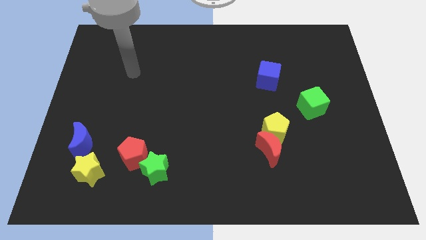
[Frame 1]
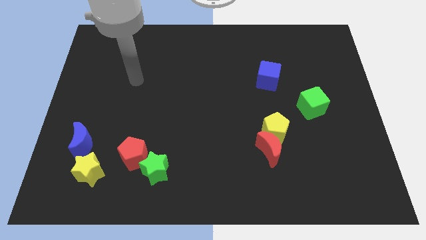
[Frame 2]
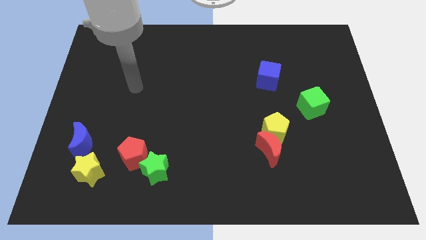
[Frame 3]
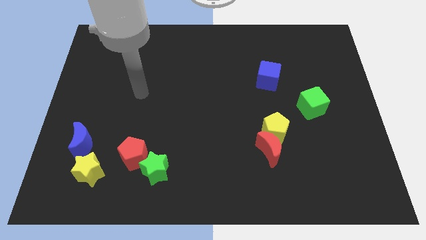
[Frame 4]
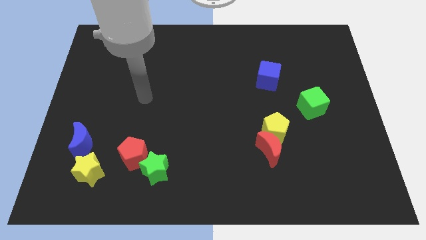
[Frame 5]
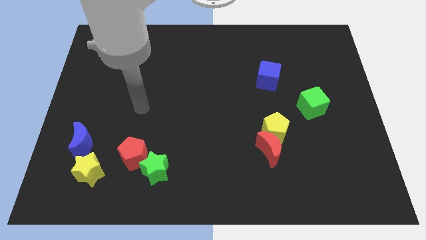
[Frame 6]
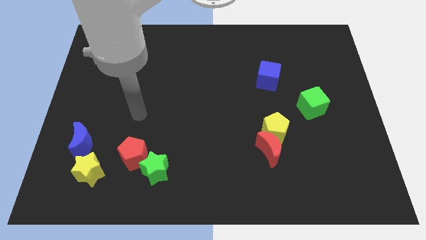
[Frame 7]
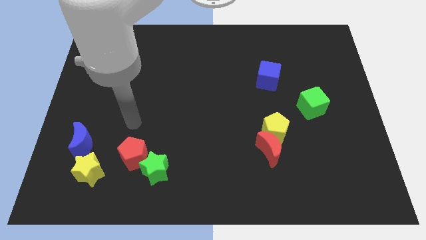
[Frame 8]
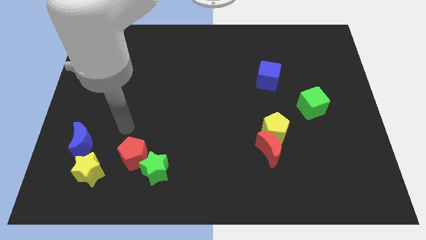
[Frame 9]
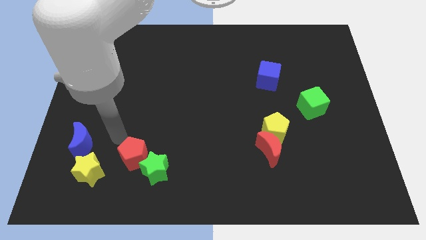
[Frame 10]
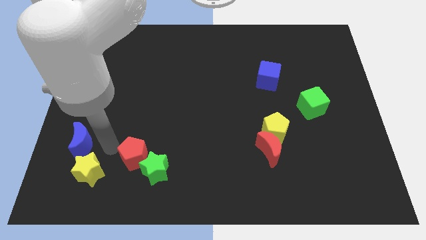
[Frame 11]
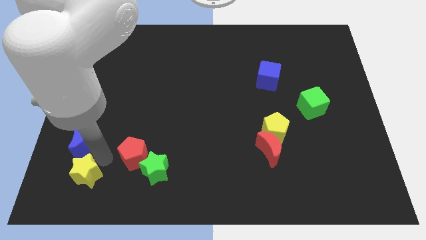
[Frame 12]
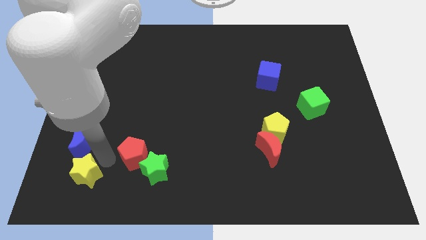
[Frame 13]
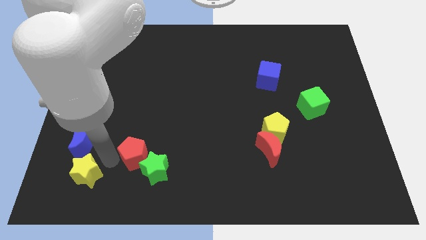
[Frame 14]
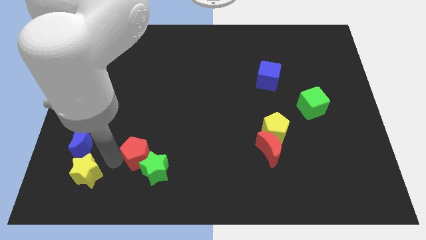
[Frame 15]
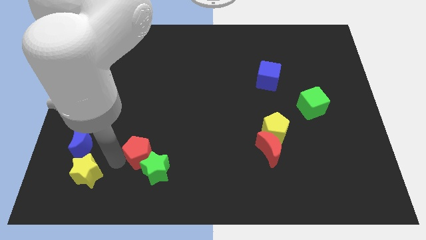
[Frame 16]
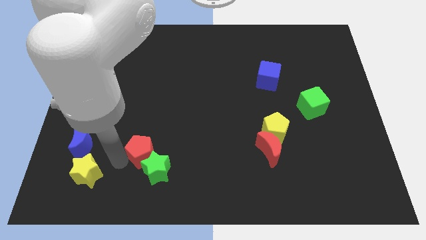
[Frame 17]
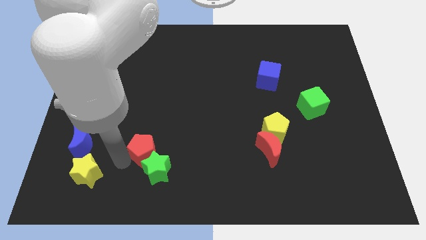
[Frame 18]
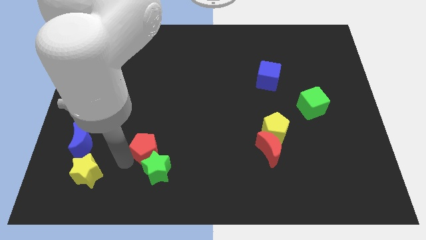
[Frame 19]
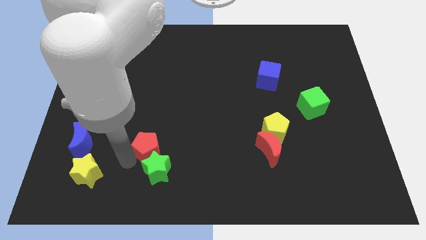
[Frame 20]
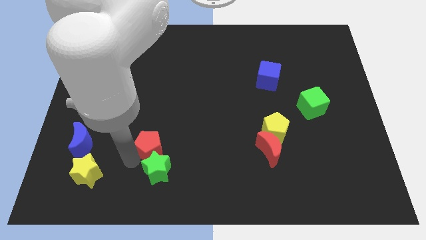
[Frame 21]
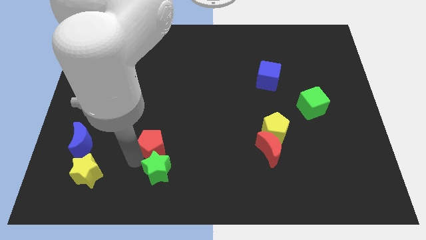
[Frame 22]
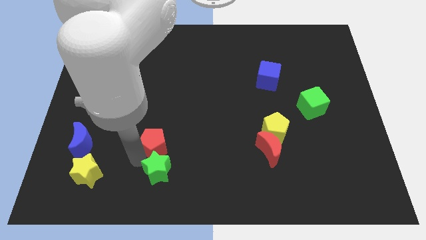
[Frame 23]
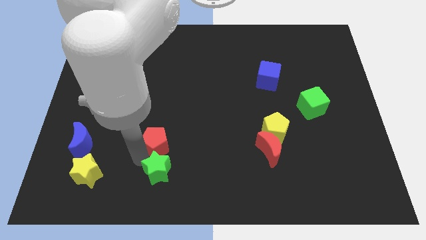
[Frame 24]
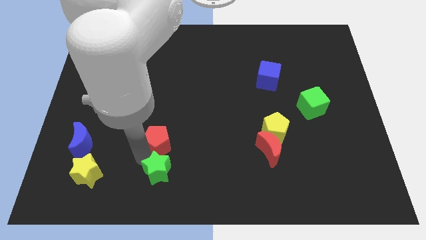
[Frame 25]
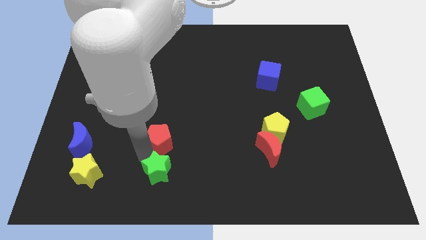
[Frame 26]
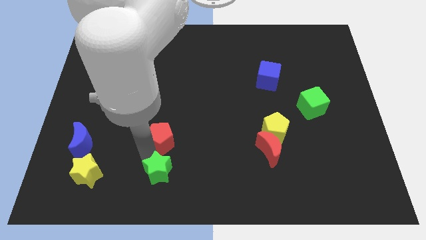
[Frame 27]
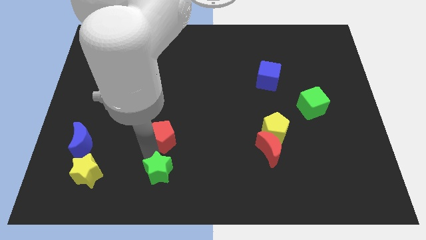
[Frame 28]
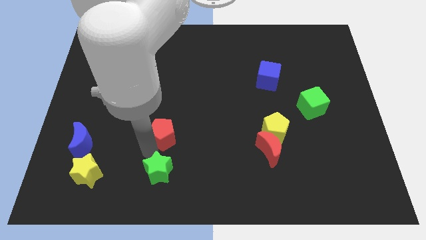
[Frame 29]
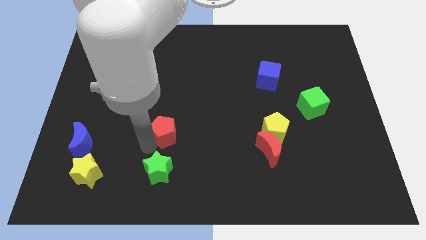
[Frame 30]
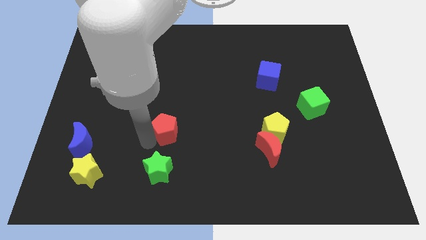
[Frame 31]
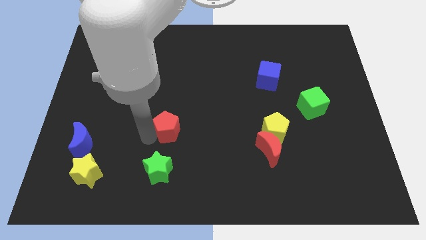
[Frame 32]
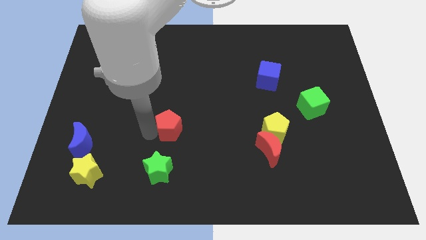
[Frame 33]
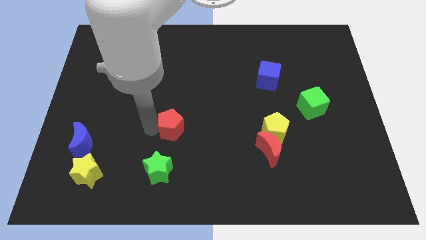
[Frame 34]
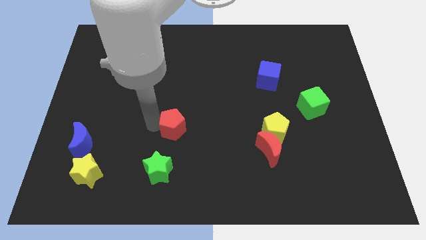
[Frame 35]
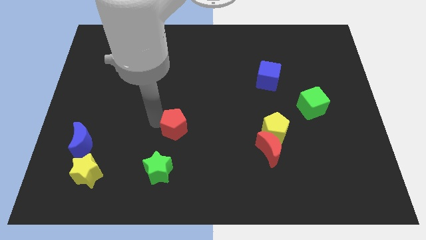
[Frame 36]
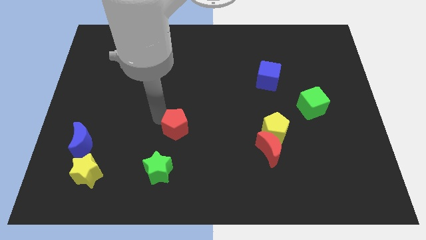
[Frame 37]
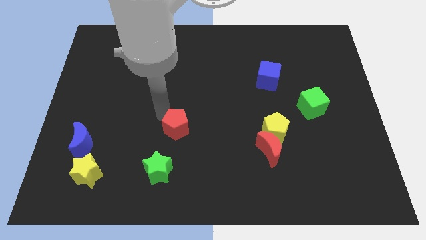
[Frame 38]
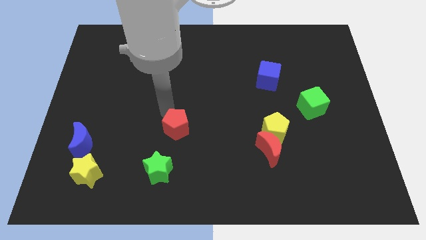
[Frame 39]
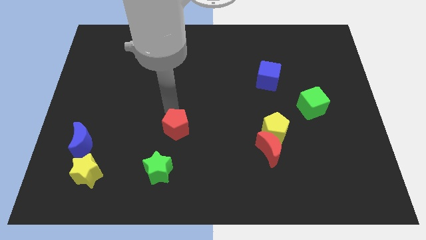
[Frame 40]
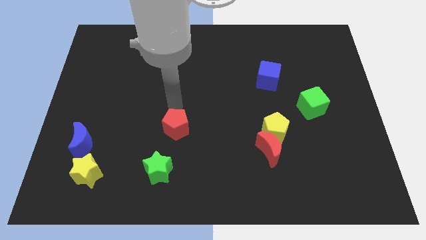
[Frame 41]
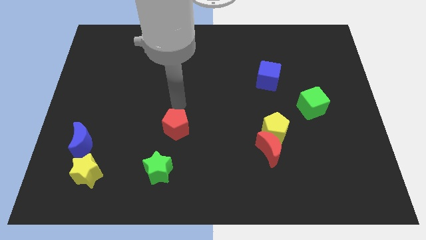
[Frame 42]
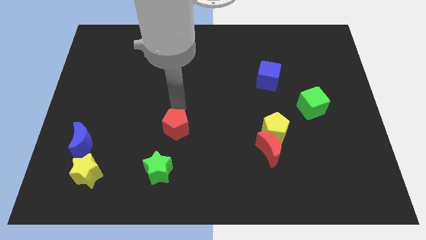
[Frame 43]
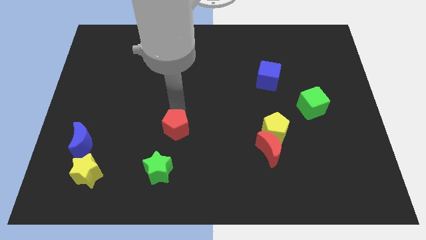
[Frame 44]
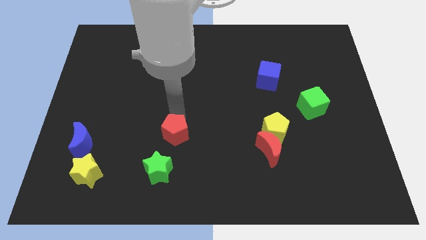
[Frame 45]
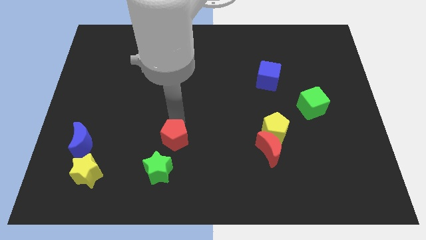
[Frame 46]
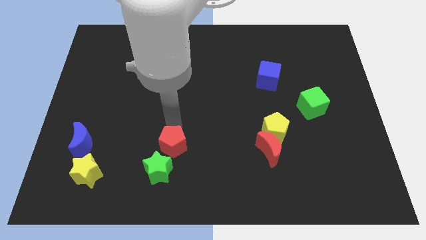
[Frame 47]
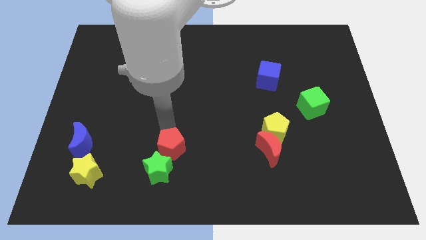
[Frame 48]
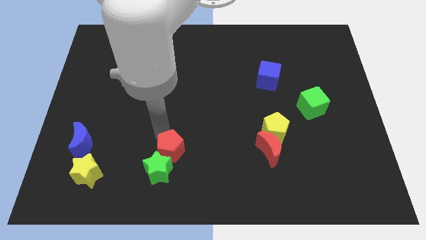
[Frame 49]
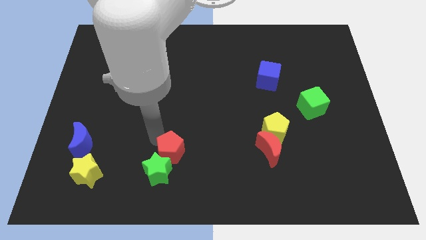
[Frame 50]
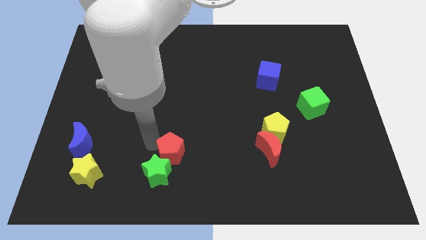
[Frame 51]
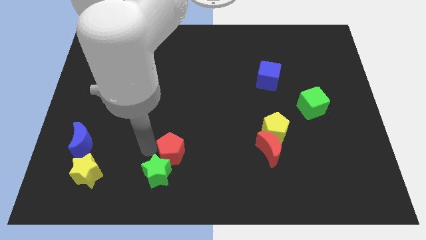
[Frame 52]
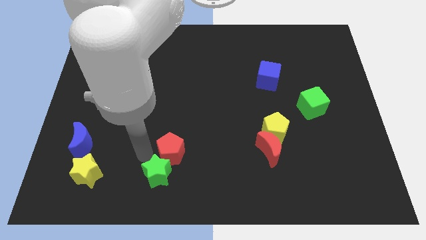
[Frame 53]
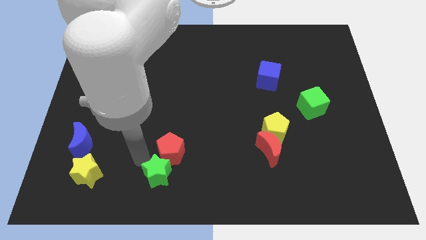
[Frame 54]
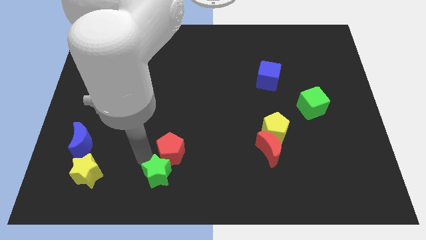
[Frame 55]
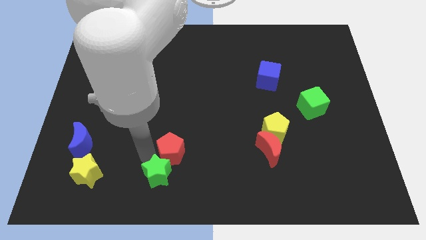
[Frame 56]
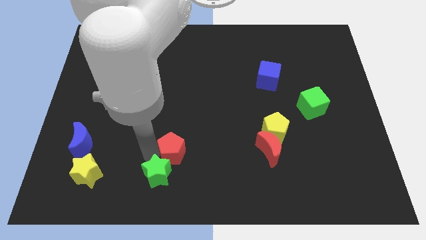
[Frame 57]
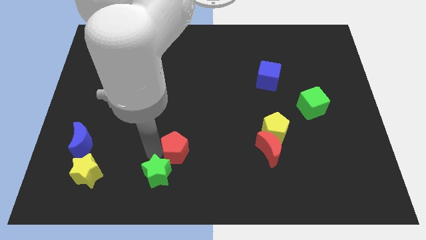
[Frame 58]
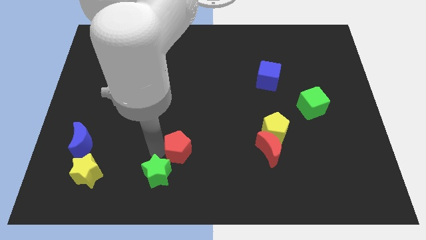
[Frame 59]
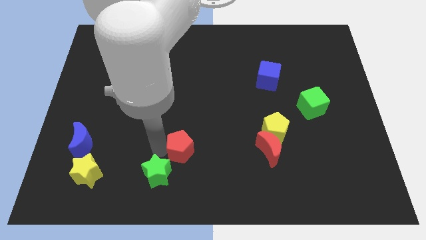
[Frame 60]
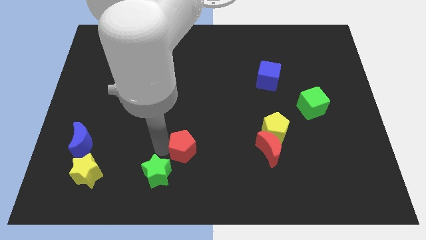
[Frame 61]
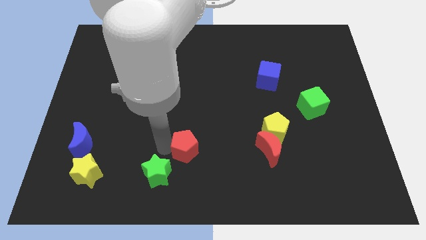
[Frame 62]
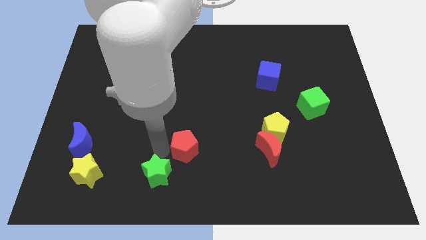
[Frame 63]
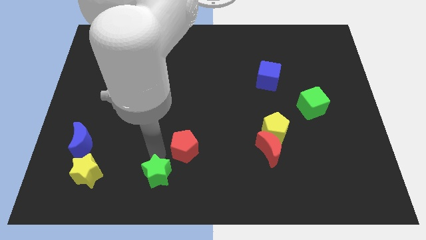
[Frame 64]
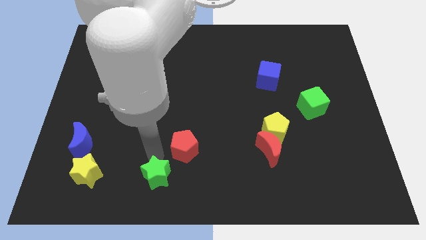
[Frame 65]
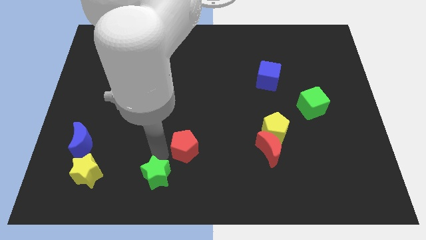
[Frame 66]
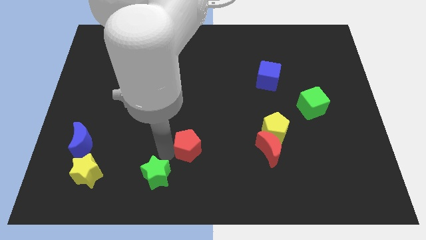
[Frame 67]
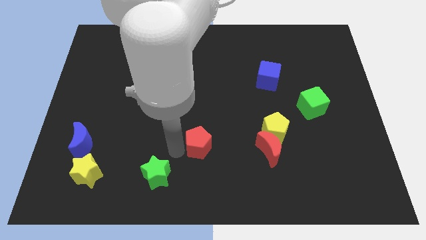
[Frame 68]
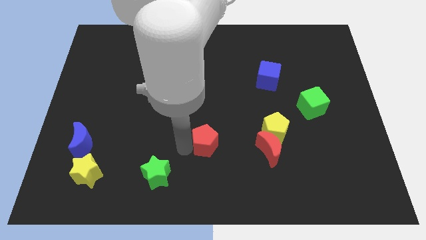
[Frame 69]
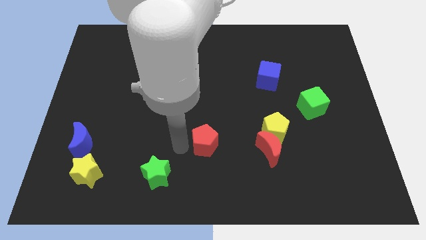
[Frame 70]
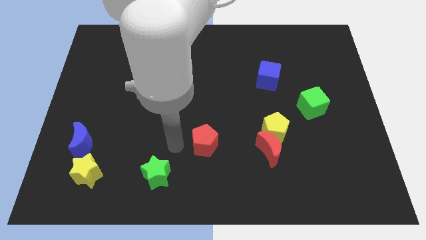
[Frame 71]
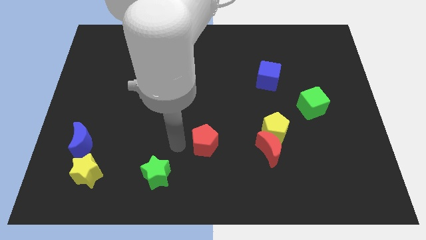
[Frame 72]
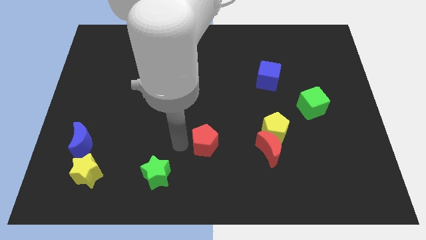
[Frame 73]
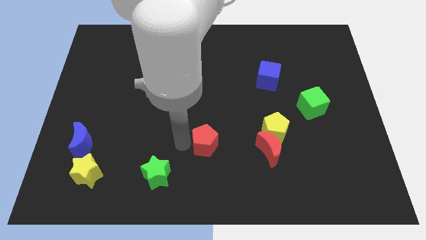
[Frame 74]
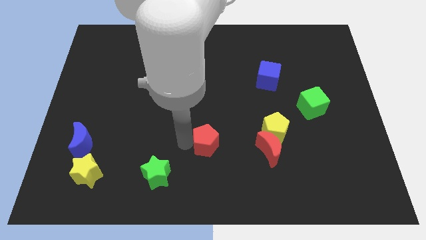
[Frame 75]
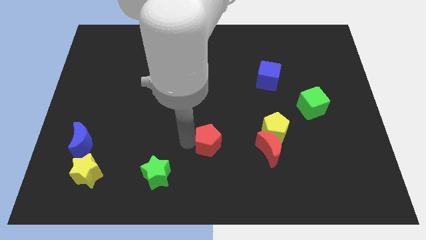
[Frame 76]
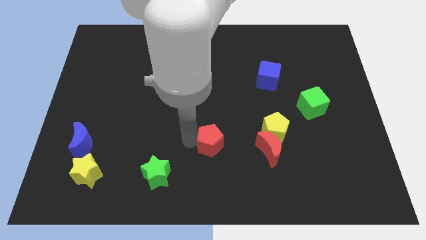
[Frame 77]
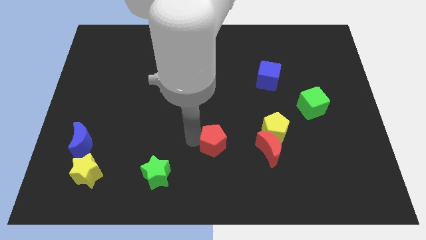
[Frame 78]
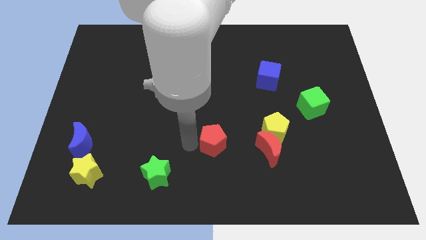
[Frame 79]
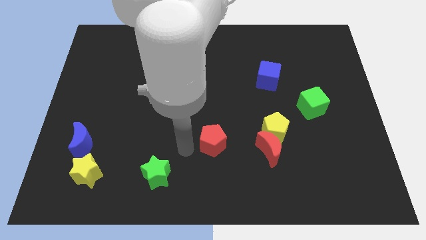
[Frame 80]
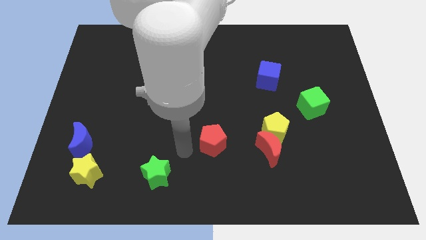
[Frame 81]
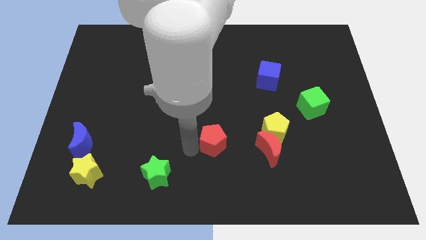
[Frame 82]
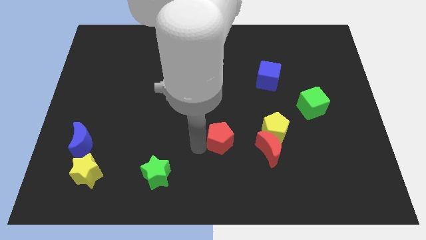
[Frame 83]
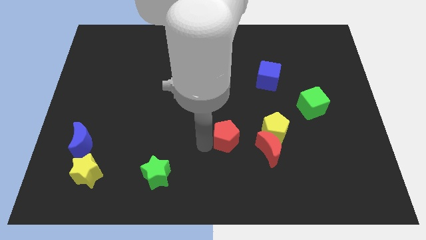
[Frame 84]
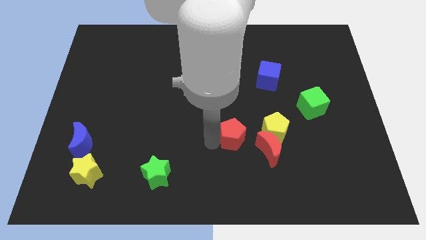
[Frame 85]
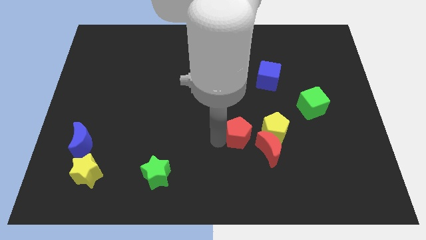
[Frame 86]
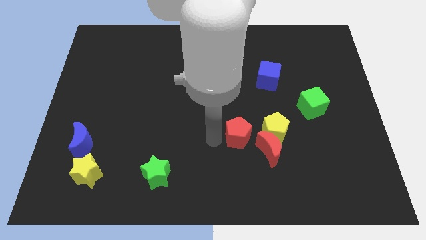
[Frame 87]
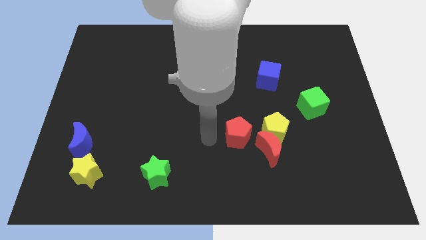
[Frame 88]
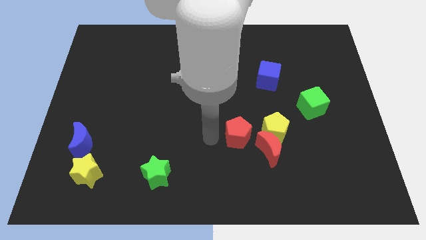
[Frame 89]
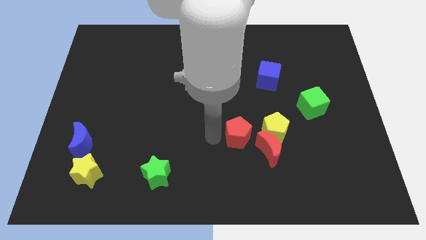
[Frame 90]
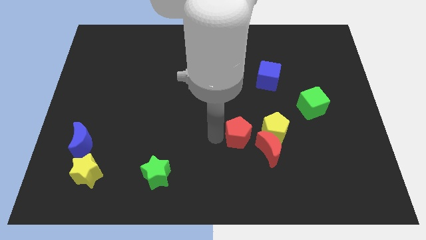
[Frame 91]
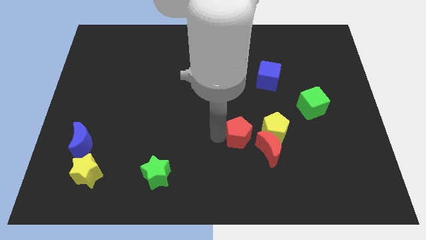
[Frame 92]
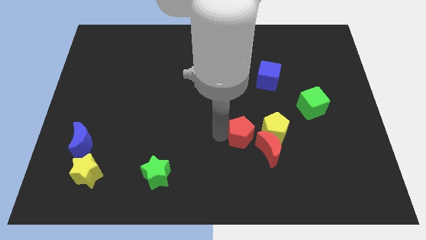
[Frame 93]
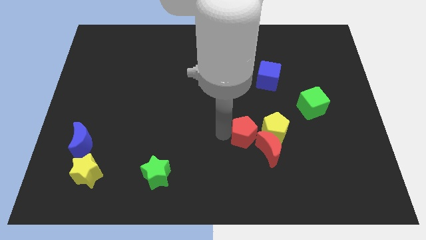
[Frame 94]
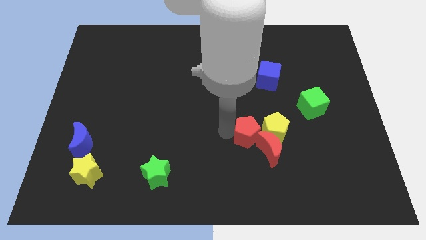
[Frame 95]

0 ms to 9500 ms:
put the red pentagon towards the yellow pentagon
